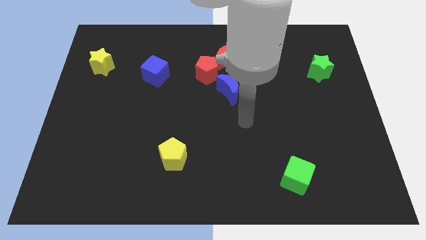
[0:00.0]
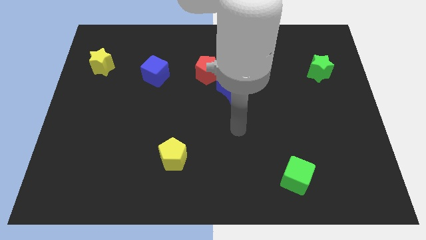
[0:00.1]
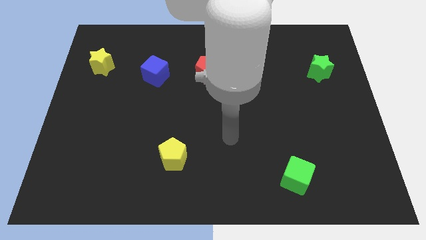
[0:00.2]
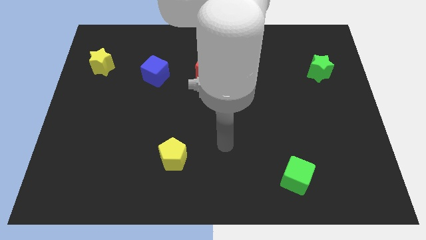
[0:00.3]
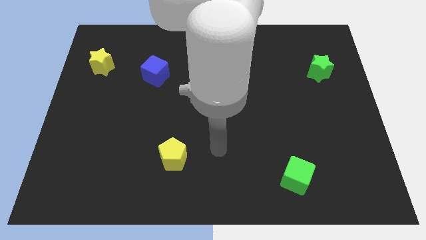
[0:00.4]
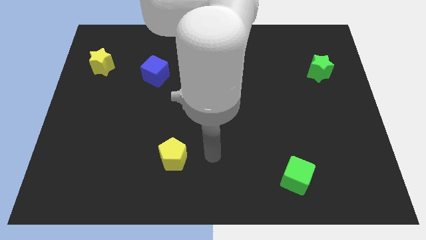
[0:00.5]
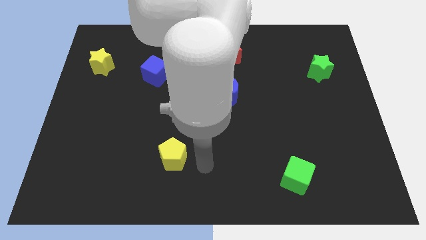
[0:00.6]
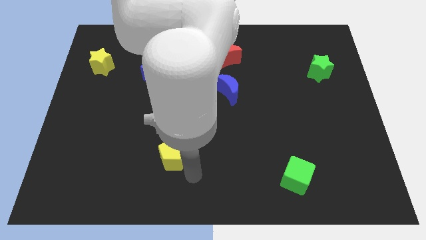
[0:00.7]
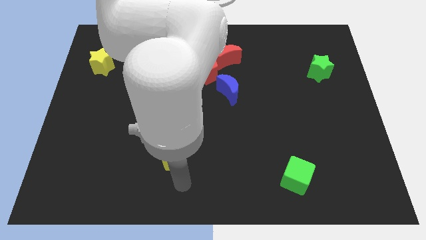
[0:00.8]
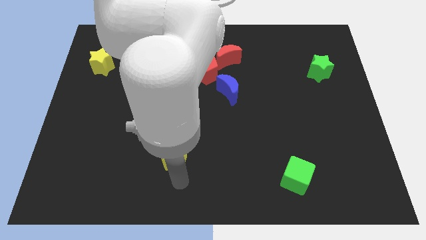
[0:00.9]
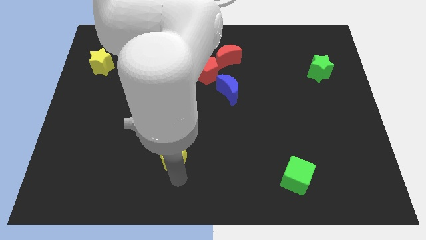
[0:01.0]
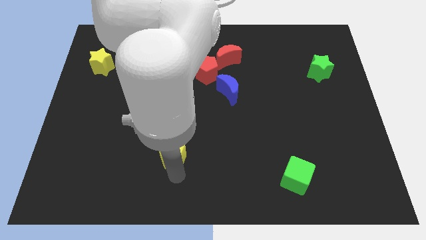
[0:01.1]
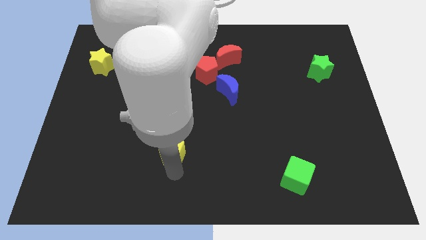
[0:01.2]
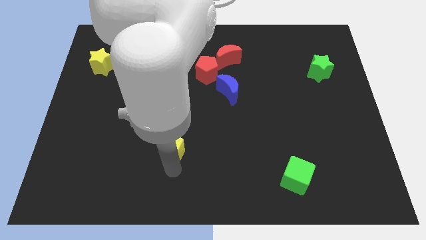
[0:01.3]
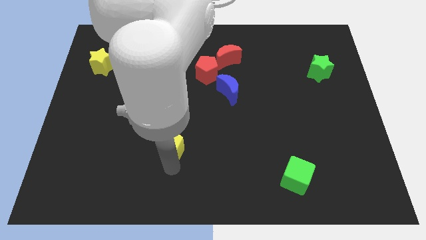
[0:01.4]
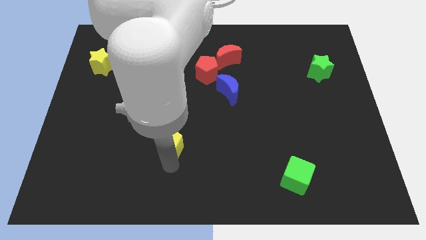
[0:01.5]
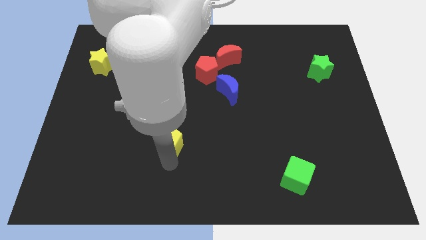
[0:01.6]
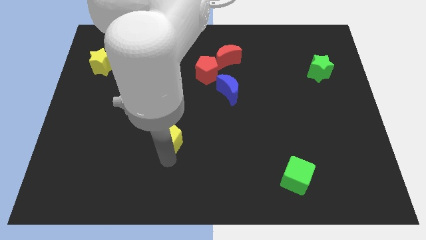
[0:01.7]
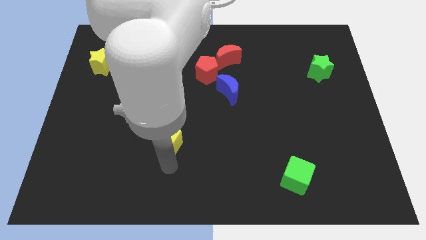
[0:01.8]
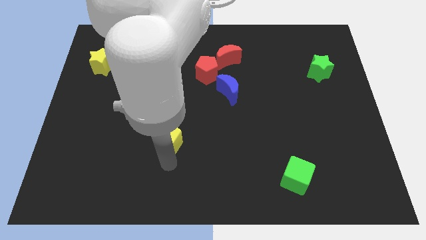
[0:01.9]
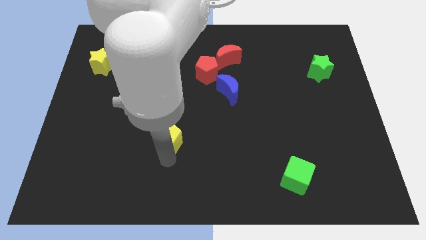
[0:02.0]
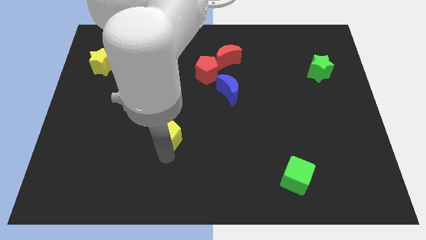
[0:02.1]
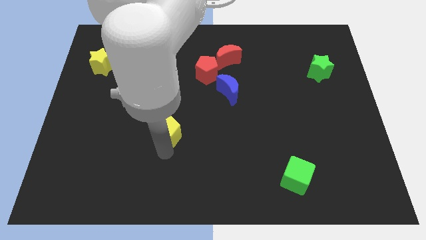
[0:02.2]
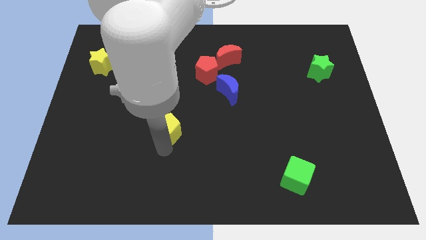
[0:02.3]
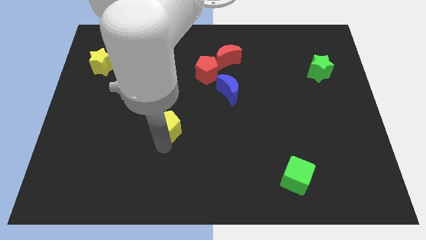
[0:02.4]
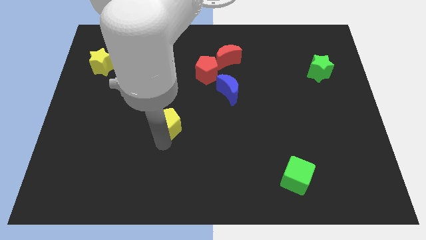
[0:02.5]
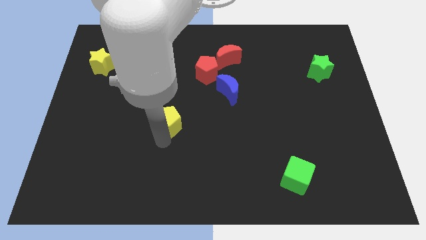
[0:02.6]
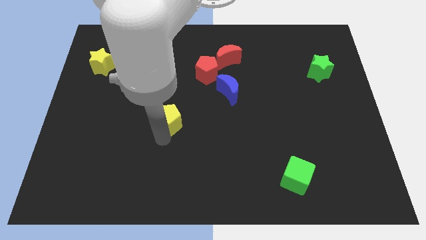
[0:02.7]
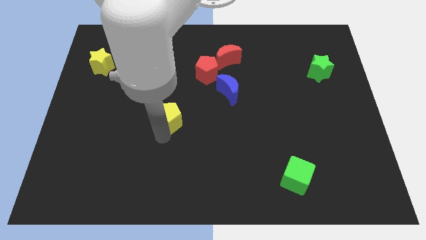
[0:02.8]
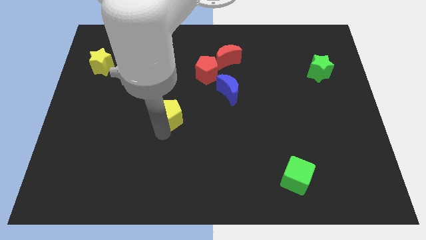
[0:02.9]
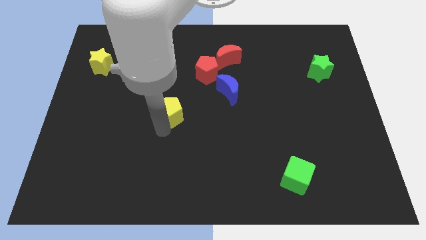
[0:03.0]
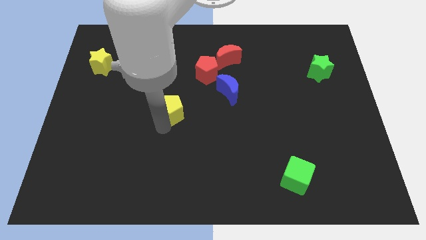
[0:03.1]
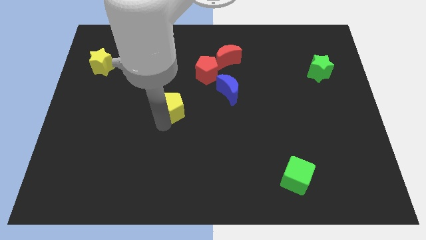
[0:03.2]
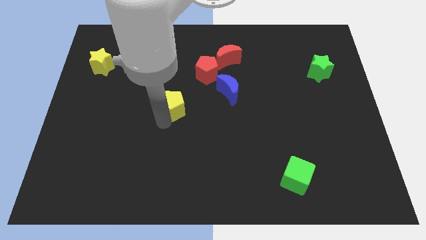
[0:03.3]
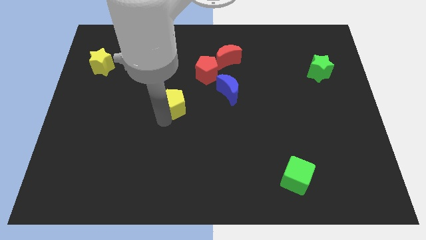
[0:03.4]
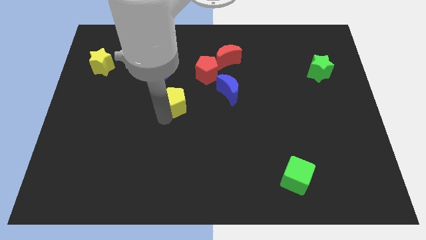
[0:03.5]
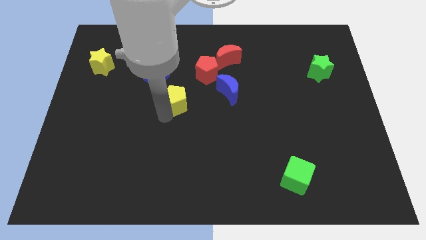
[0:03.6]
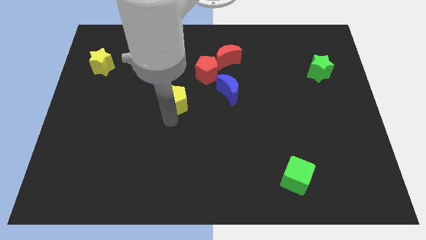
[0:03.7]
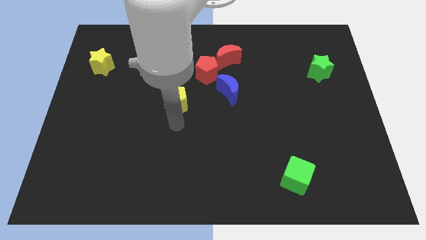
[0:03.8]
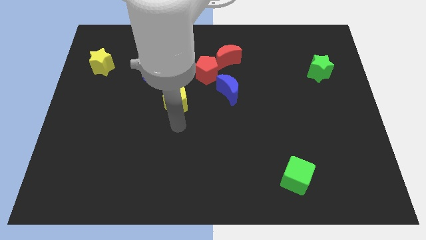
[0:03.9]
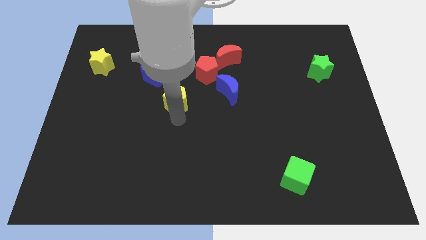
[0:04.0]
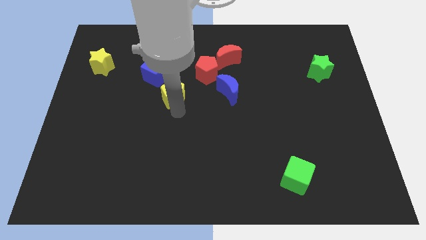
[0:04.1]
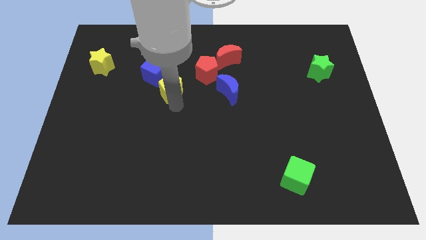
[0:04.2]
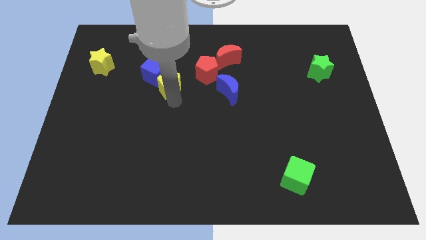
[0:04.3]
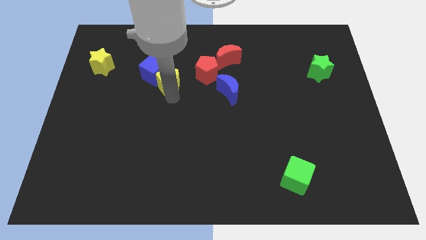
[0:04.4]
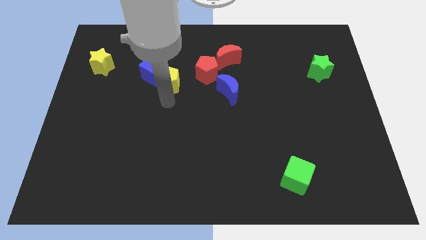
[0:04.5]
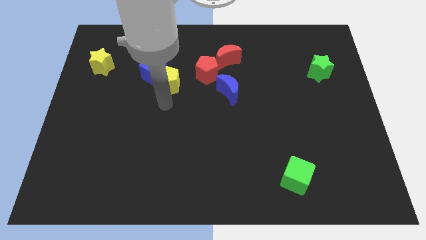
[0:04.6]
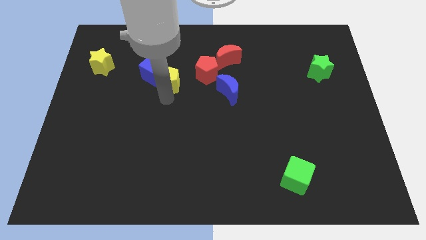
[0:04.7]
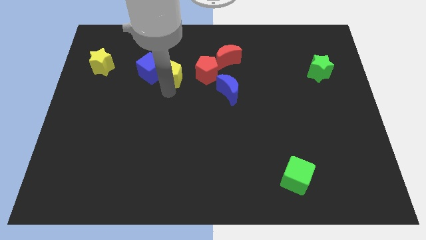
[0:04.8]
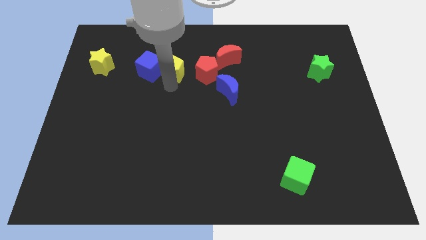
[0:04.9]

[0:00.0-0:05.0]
slide the yellow pentagon to the top right of the blue cube

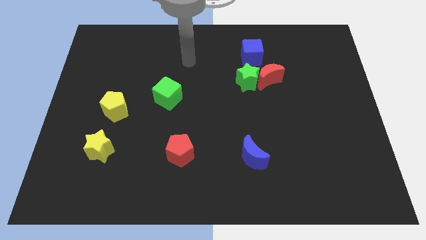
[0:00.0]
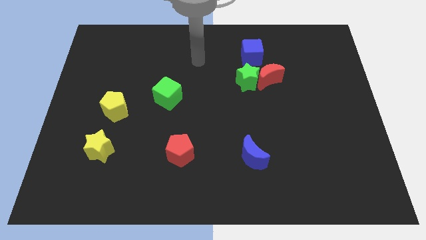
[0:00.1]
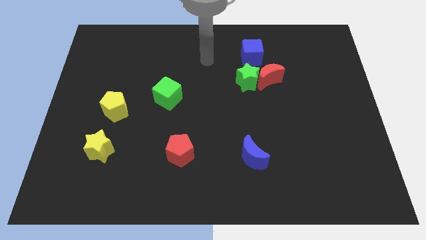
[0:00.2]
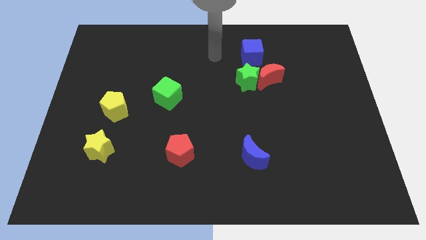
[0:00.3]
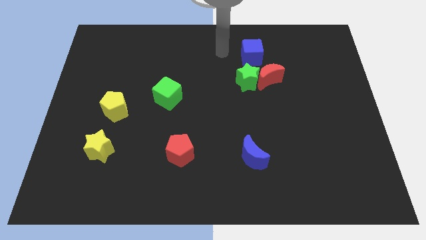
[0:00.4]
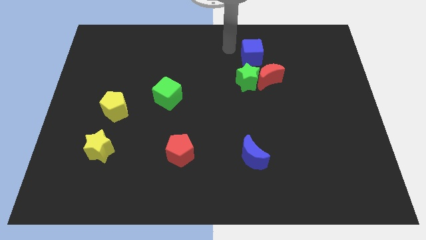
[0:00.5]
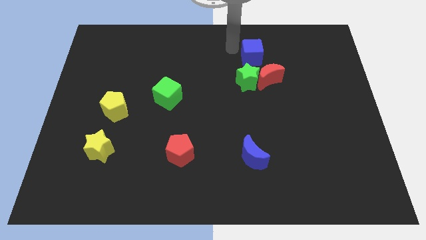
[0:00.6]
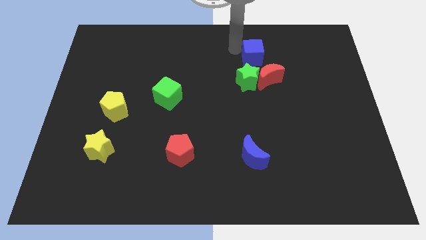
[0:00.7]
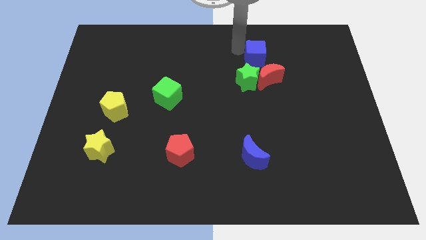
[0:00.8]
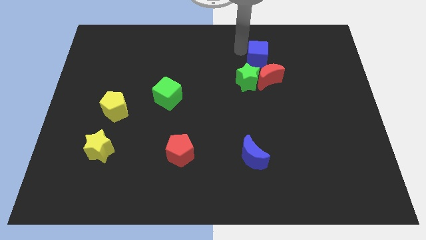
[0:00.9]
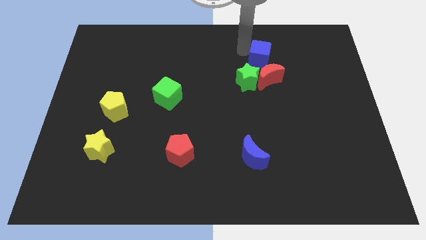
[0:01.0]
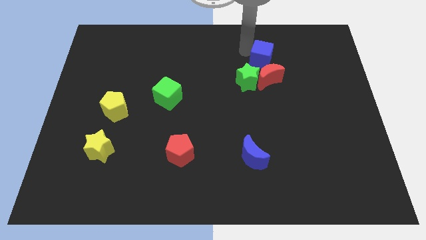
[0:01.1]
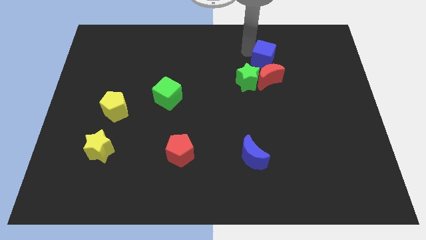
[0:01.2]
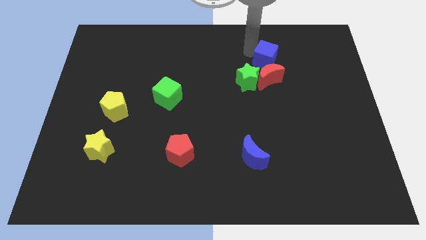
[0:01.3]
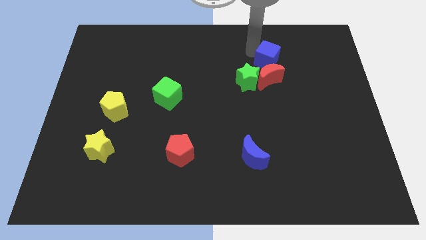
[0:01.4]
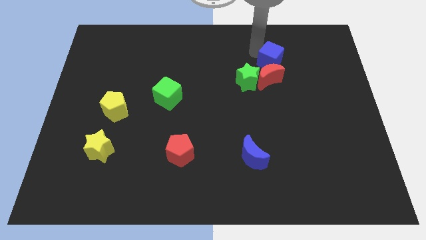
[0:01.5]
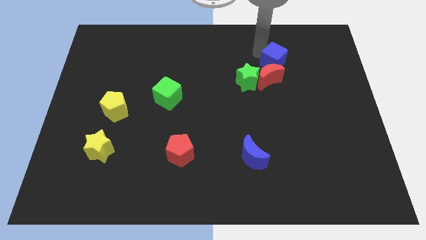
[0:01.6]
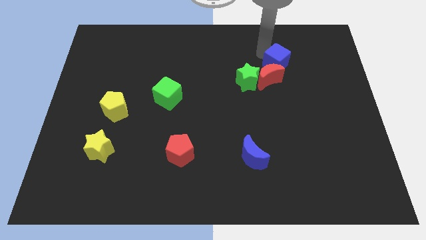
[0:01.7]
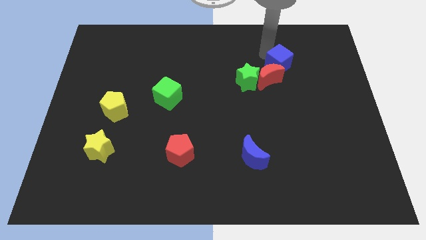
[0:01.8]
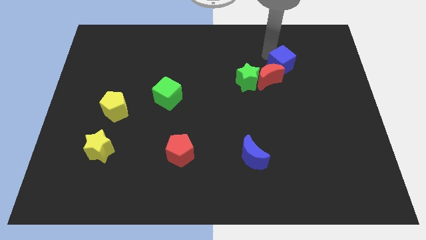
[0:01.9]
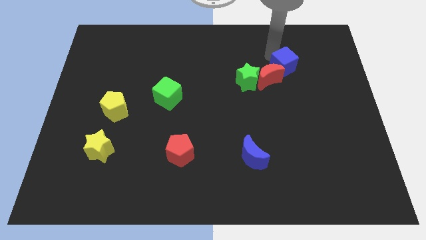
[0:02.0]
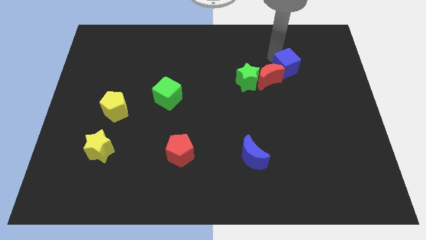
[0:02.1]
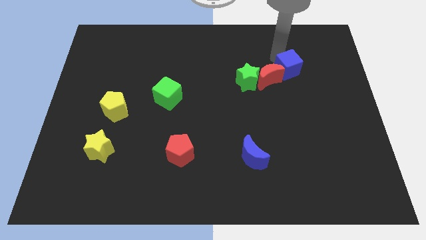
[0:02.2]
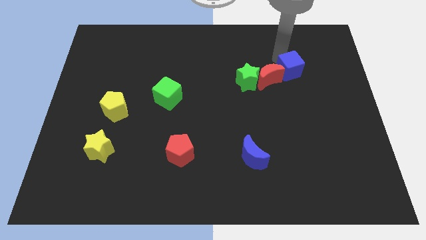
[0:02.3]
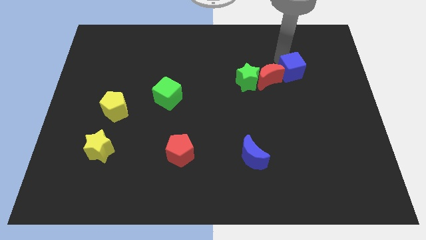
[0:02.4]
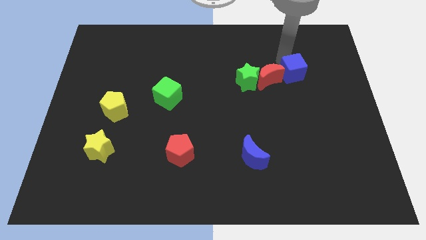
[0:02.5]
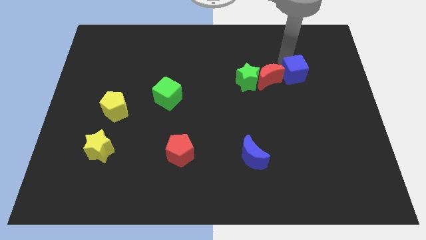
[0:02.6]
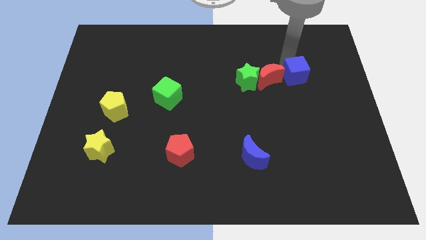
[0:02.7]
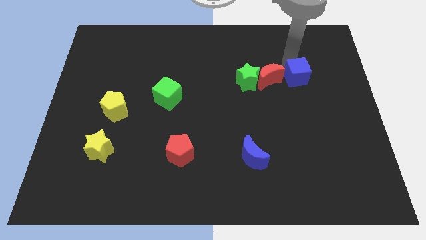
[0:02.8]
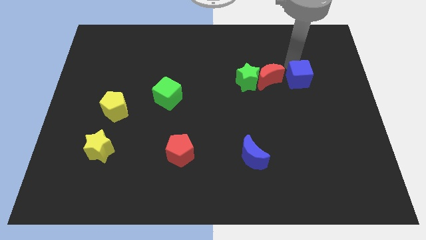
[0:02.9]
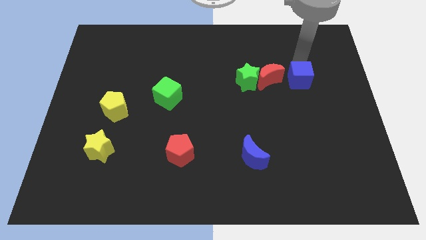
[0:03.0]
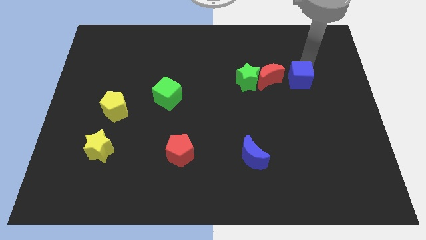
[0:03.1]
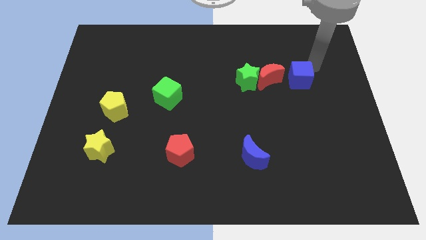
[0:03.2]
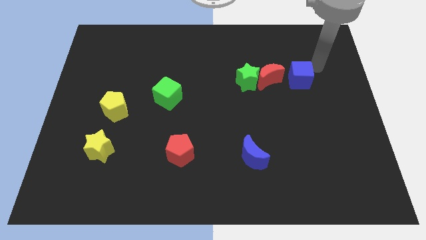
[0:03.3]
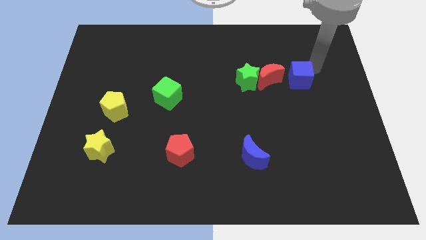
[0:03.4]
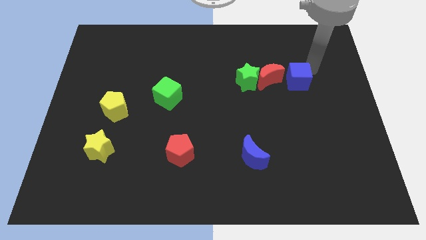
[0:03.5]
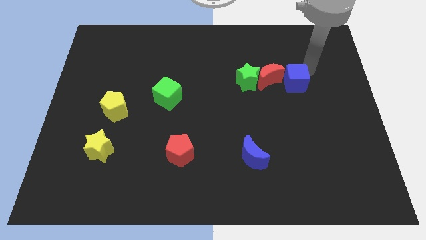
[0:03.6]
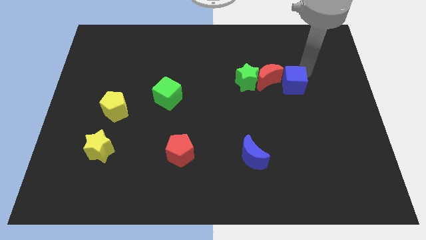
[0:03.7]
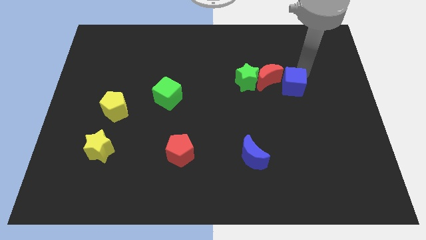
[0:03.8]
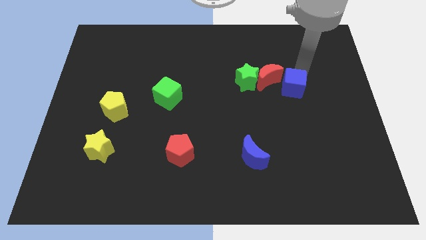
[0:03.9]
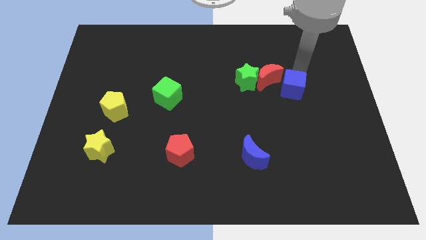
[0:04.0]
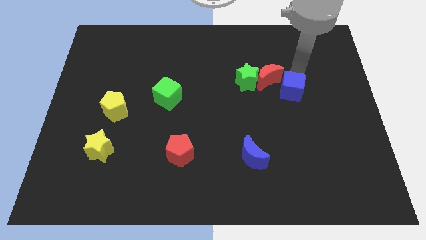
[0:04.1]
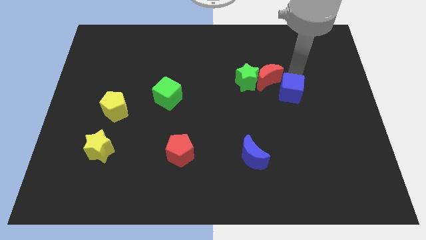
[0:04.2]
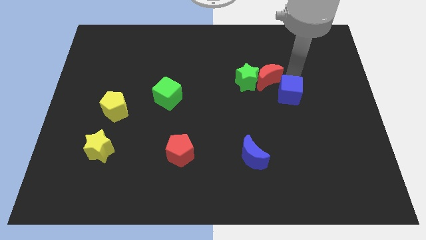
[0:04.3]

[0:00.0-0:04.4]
push the blue cube to the bottom right of the green star
